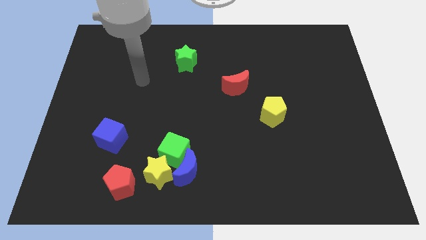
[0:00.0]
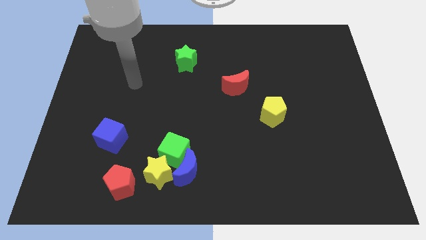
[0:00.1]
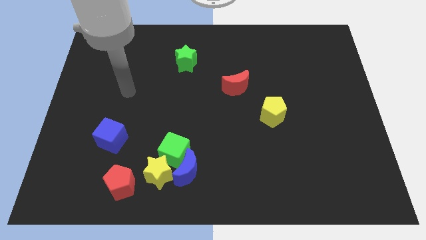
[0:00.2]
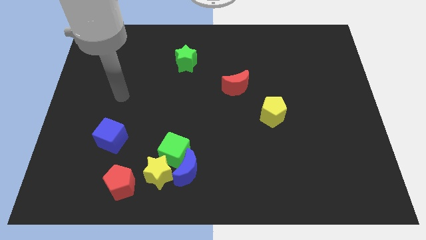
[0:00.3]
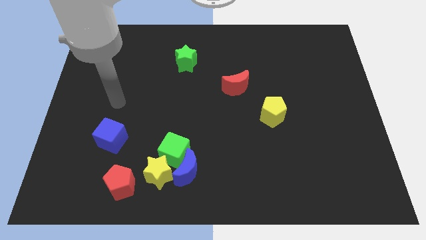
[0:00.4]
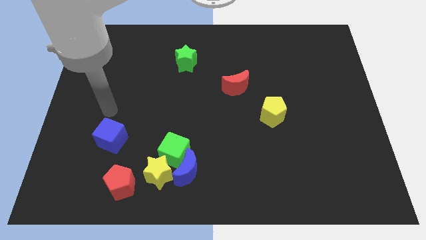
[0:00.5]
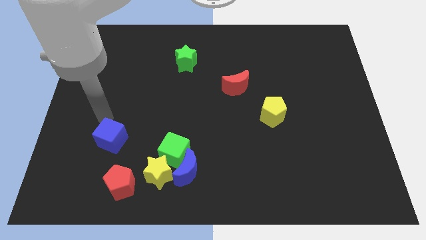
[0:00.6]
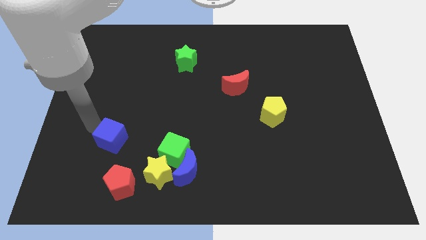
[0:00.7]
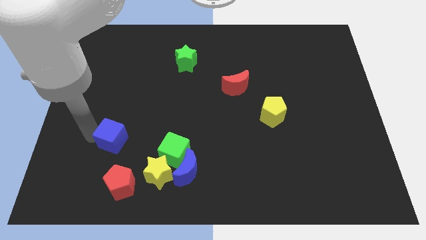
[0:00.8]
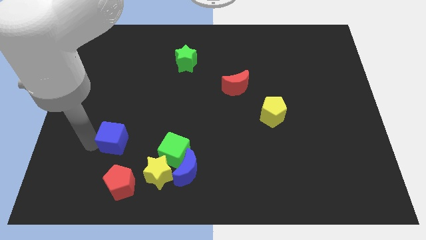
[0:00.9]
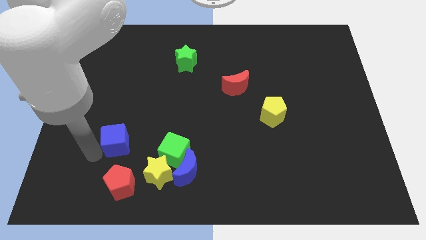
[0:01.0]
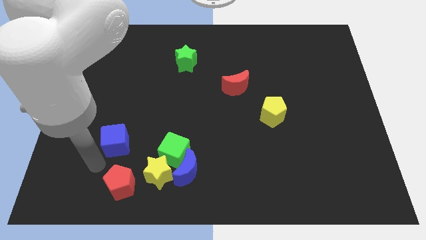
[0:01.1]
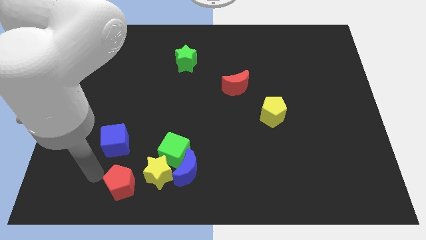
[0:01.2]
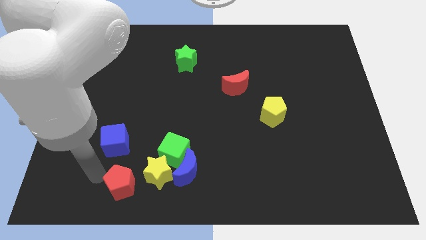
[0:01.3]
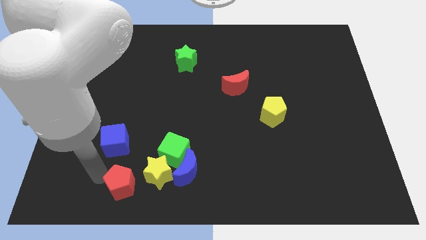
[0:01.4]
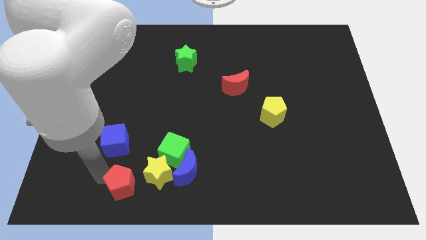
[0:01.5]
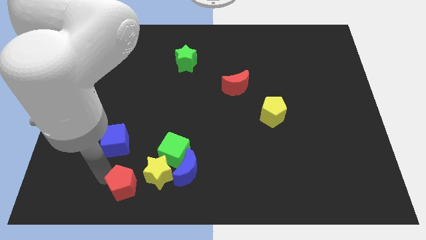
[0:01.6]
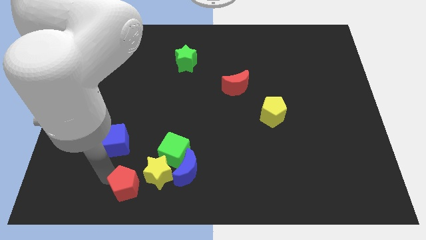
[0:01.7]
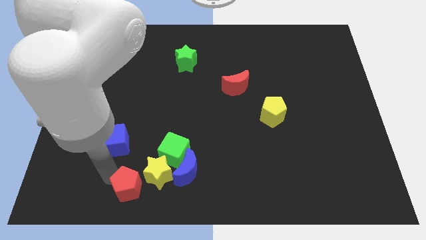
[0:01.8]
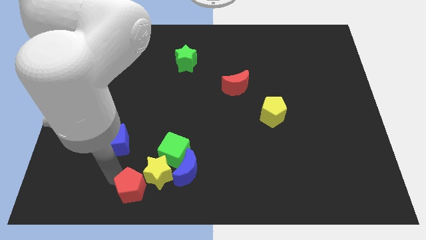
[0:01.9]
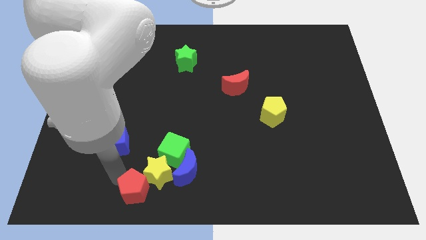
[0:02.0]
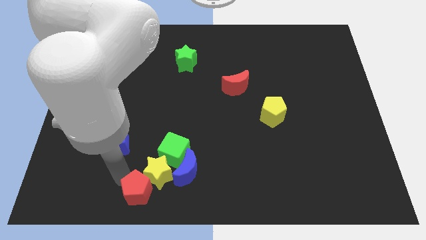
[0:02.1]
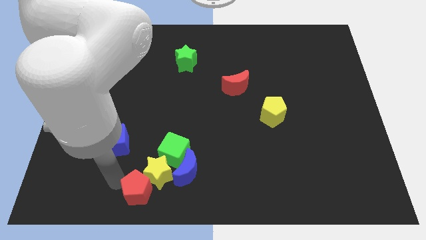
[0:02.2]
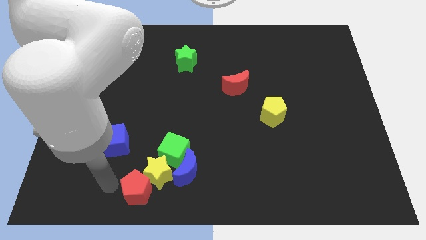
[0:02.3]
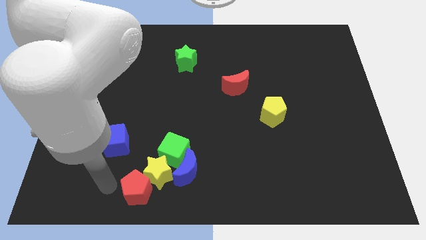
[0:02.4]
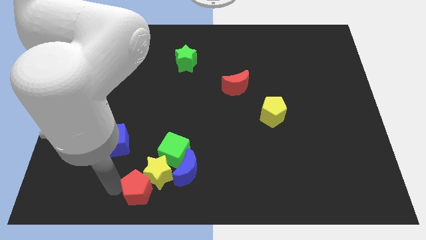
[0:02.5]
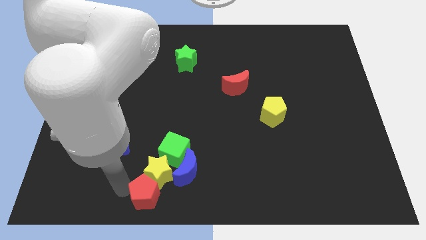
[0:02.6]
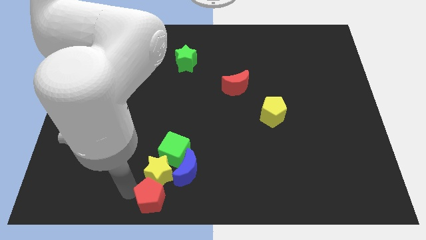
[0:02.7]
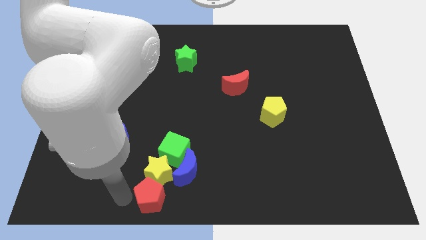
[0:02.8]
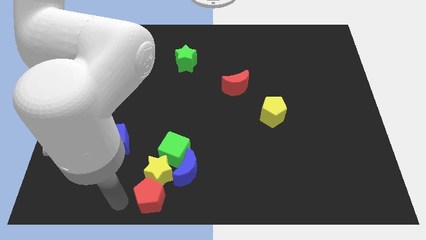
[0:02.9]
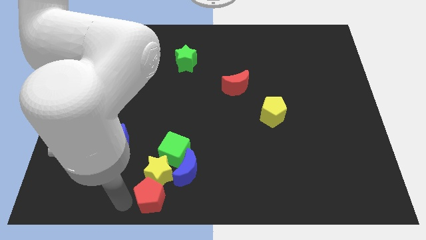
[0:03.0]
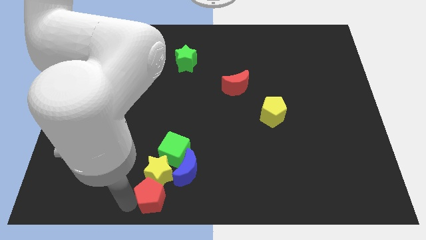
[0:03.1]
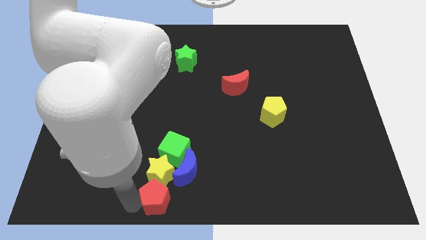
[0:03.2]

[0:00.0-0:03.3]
slightly push the red pentagon to the right

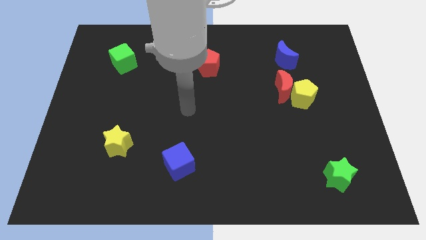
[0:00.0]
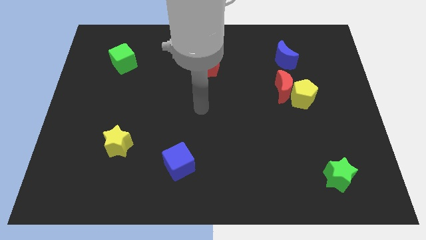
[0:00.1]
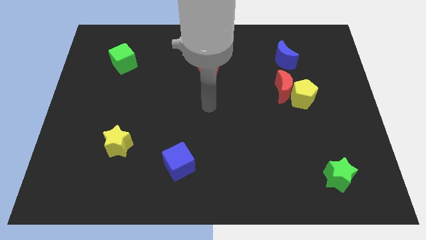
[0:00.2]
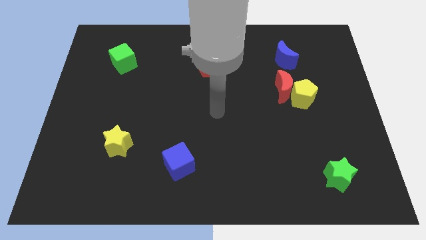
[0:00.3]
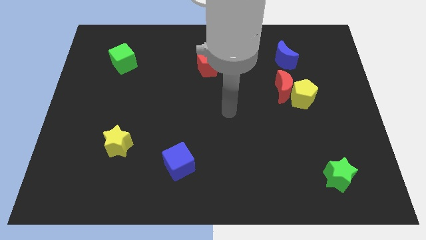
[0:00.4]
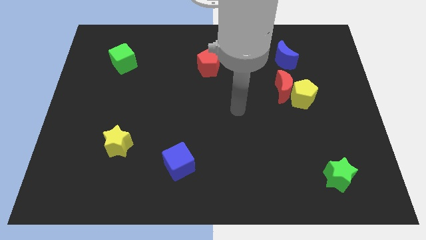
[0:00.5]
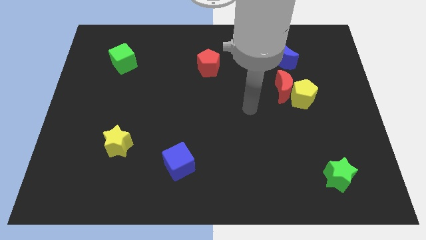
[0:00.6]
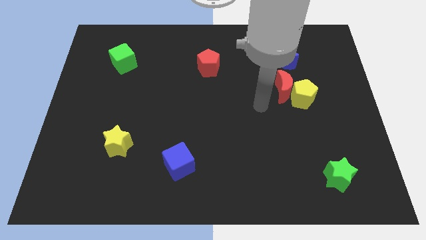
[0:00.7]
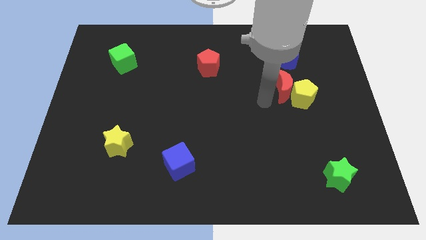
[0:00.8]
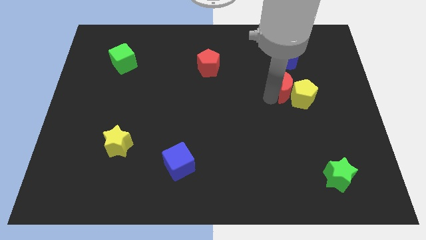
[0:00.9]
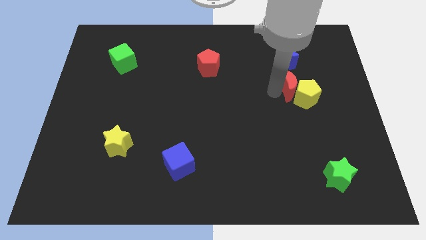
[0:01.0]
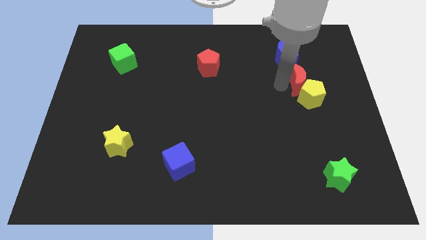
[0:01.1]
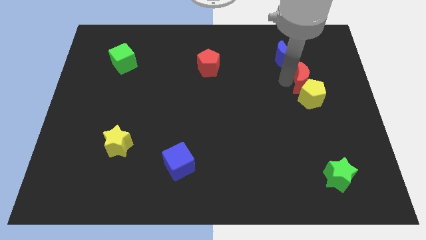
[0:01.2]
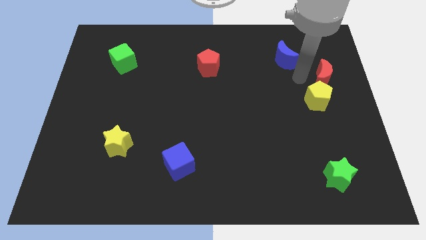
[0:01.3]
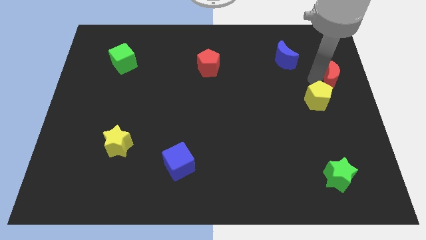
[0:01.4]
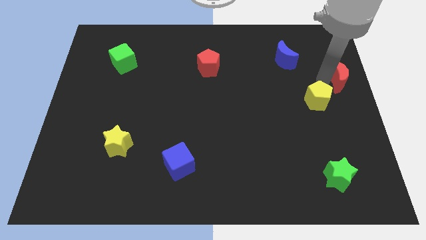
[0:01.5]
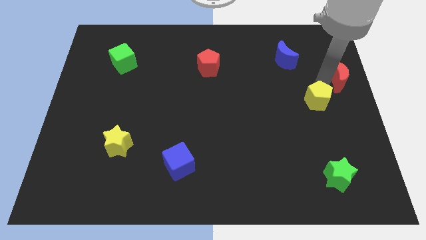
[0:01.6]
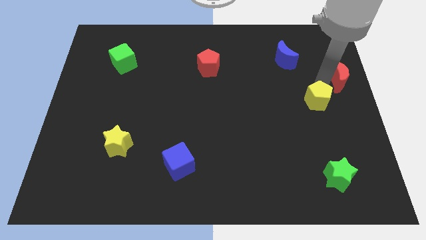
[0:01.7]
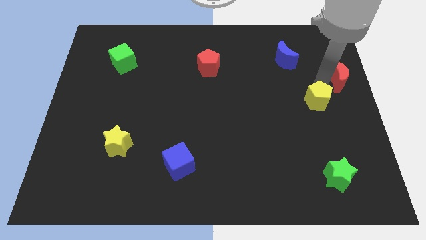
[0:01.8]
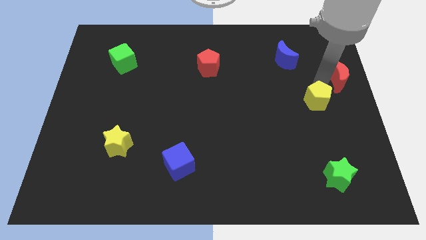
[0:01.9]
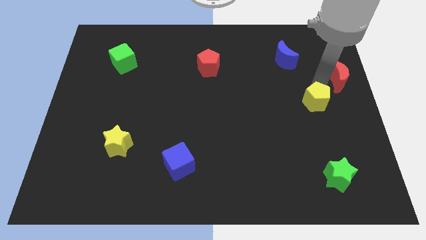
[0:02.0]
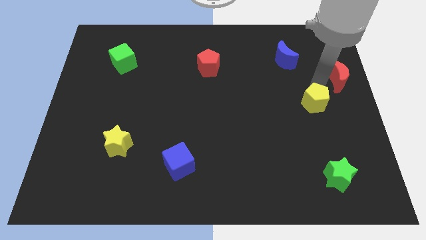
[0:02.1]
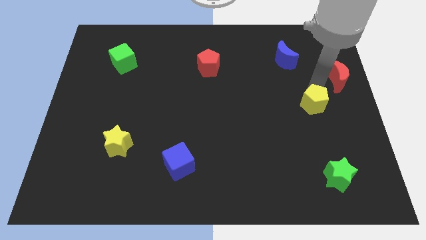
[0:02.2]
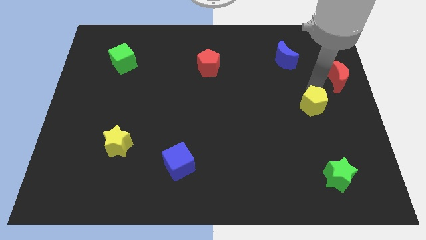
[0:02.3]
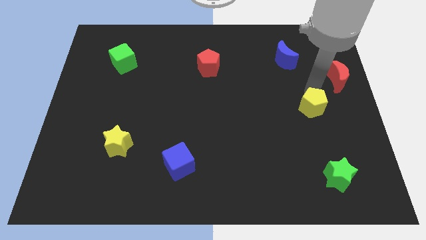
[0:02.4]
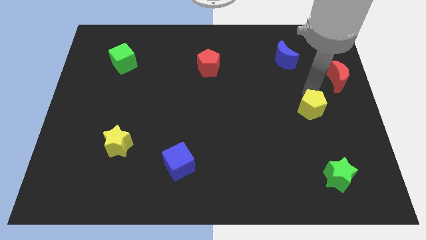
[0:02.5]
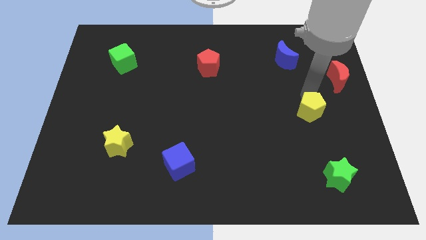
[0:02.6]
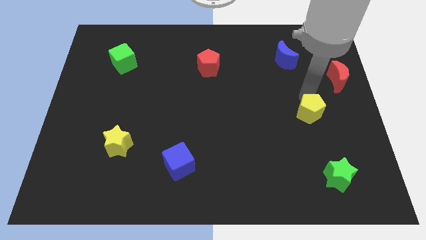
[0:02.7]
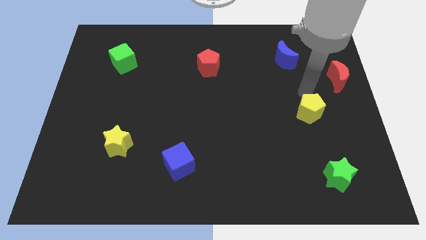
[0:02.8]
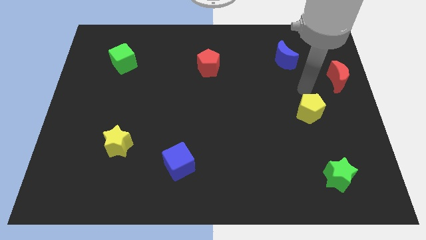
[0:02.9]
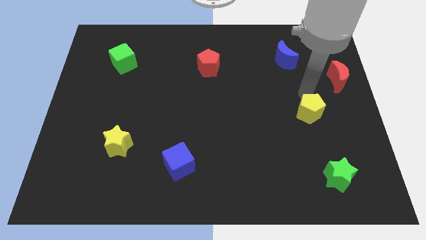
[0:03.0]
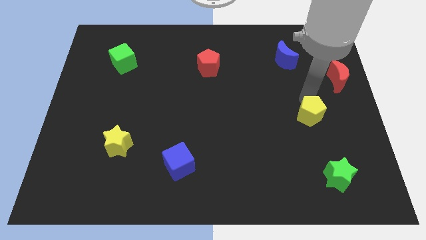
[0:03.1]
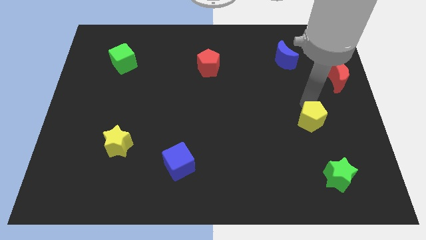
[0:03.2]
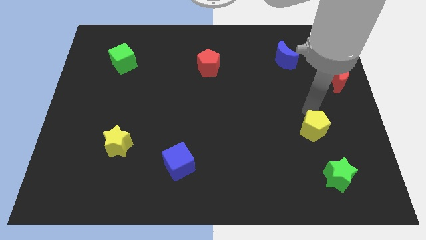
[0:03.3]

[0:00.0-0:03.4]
slide the yellow pentagon slightly down

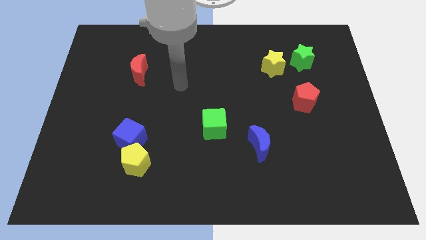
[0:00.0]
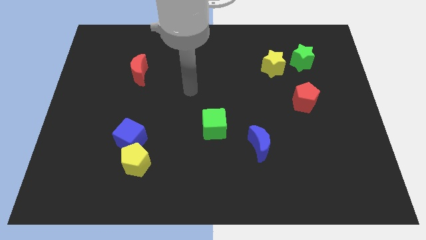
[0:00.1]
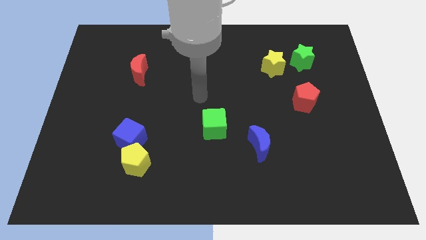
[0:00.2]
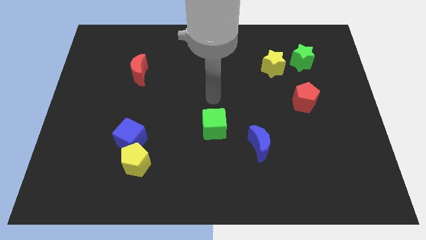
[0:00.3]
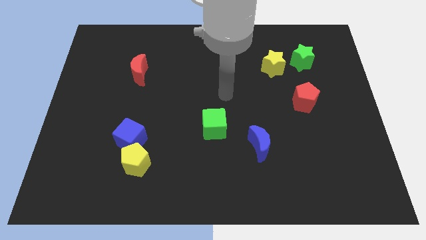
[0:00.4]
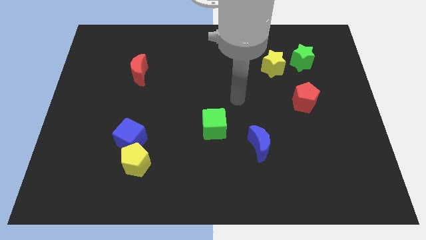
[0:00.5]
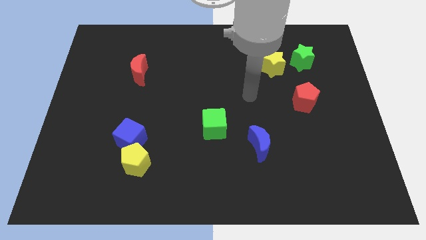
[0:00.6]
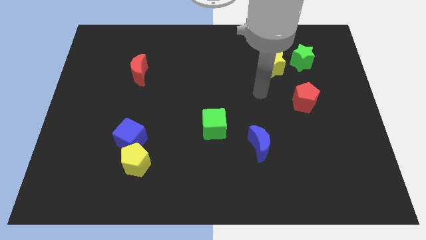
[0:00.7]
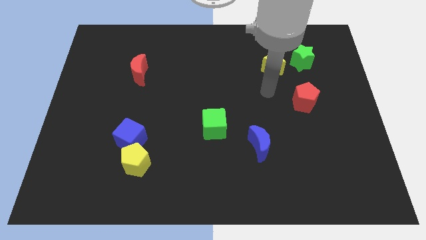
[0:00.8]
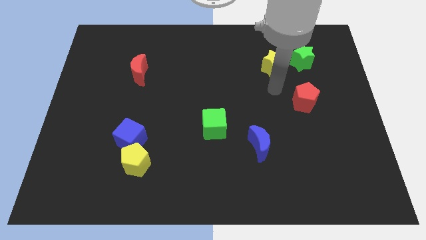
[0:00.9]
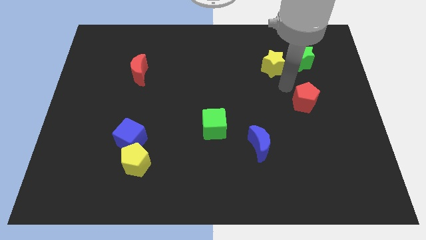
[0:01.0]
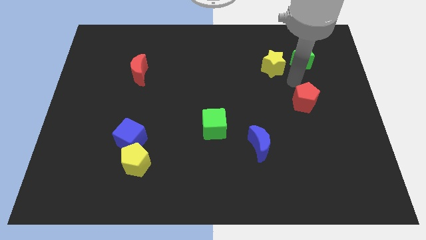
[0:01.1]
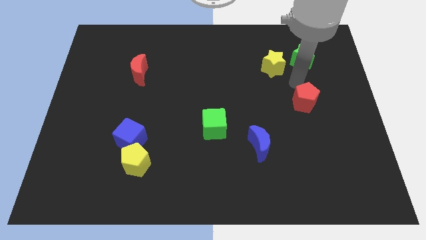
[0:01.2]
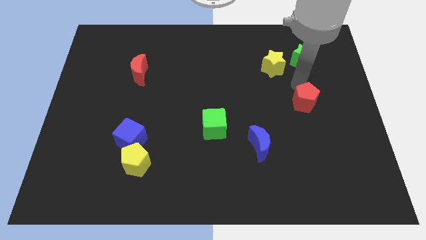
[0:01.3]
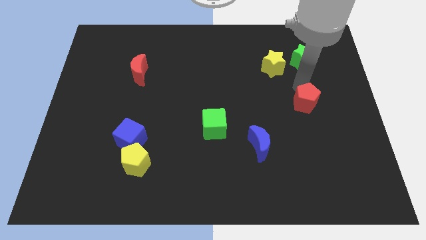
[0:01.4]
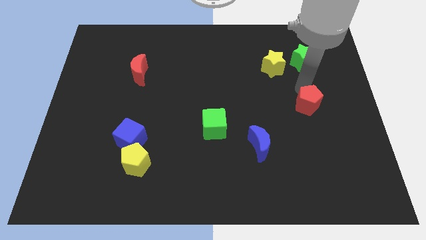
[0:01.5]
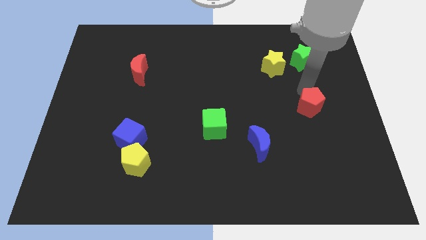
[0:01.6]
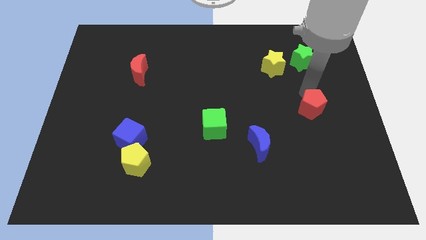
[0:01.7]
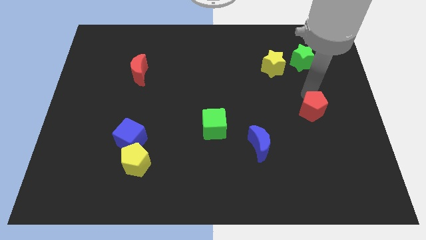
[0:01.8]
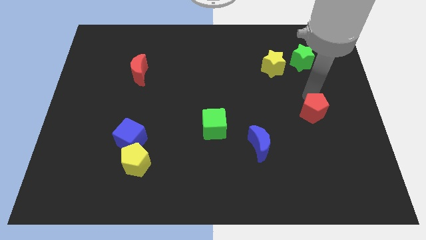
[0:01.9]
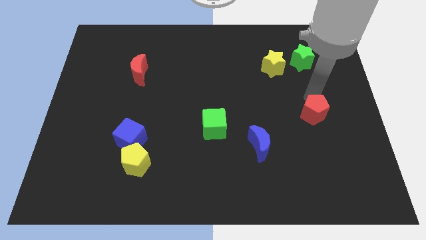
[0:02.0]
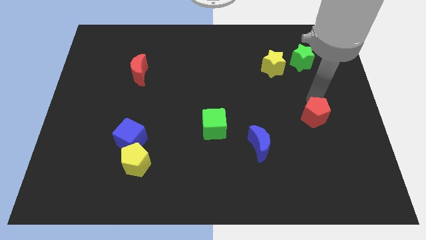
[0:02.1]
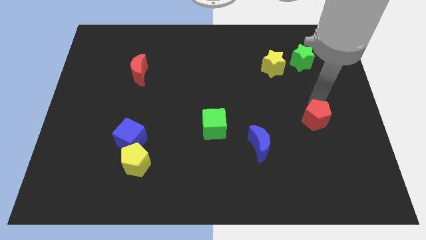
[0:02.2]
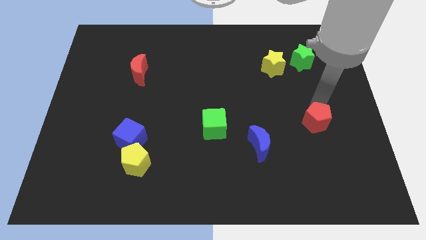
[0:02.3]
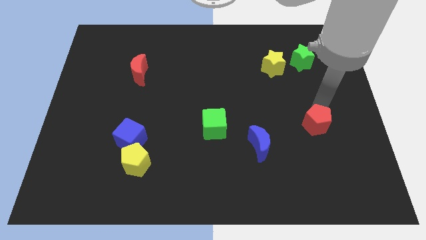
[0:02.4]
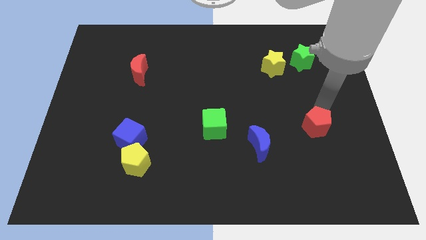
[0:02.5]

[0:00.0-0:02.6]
push the red pentagon downwards a little
